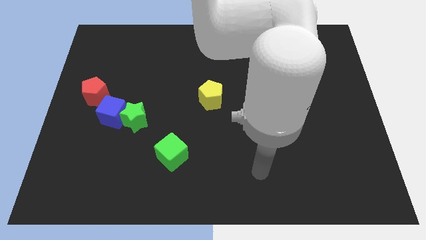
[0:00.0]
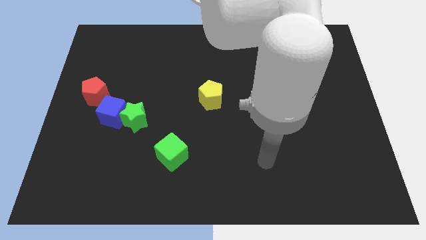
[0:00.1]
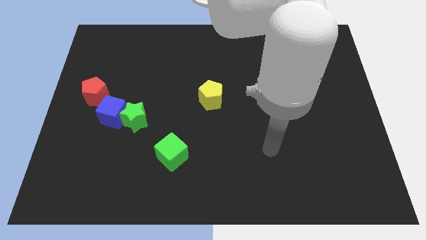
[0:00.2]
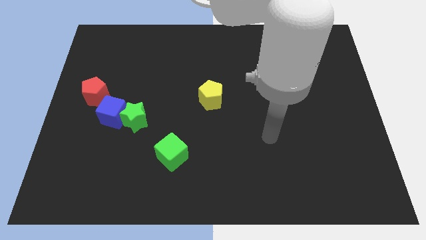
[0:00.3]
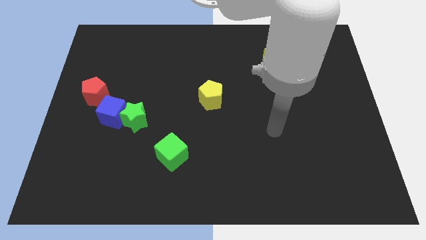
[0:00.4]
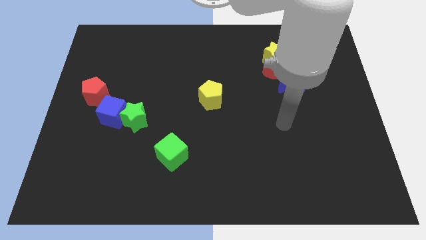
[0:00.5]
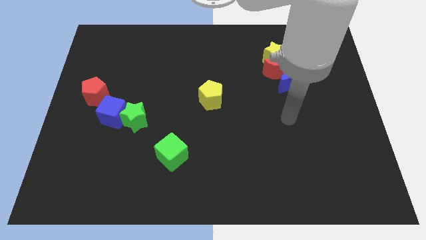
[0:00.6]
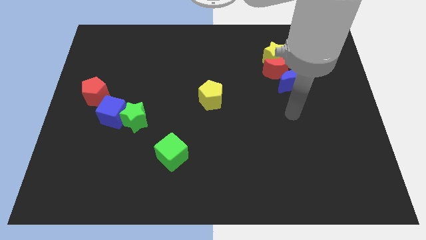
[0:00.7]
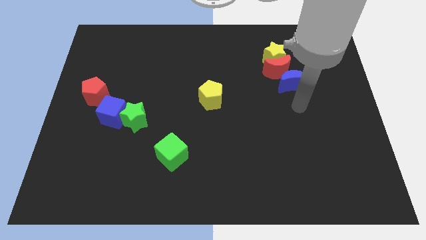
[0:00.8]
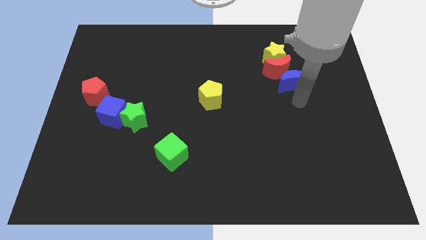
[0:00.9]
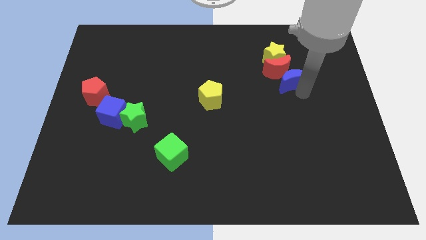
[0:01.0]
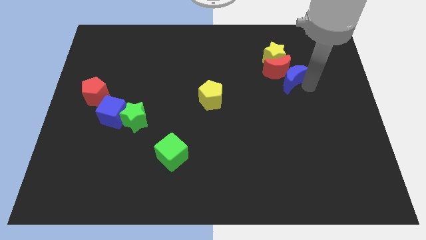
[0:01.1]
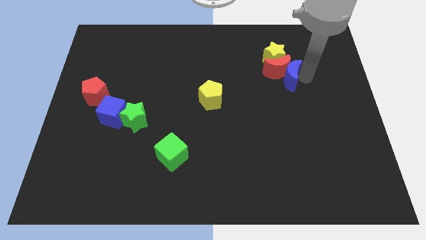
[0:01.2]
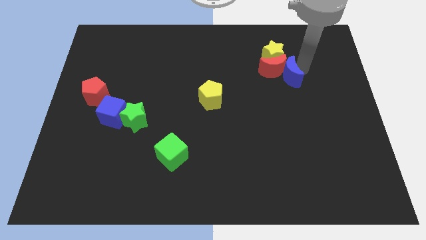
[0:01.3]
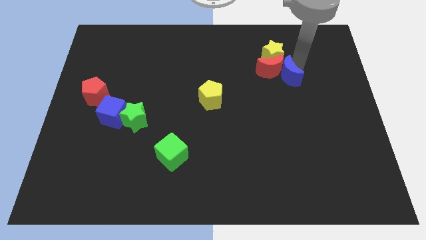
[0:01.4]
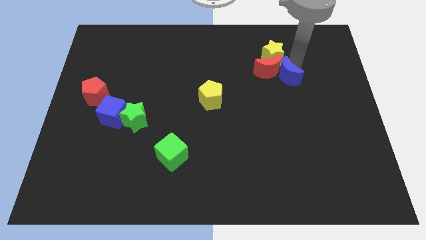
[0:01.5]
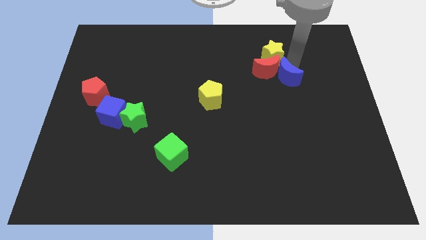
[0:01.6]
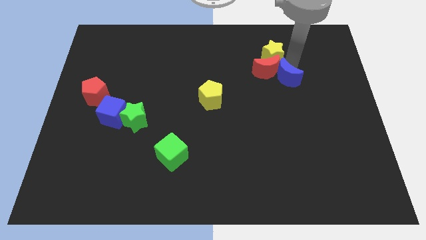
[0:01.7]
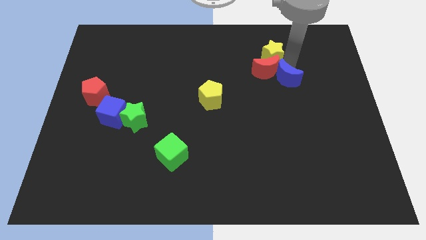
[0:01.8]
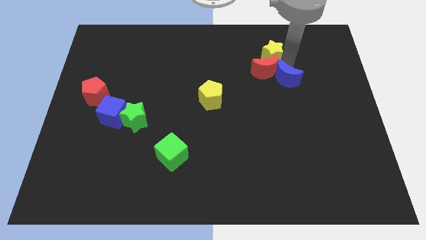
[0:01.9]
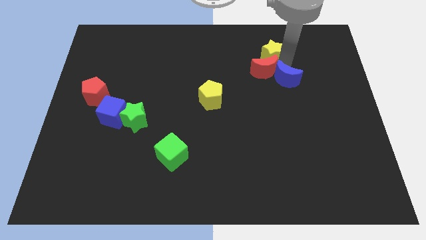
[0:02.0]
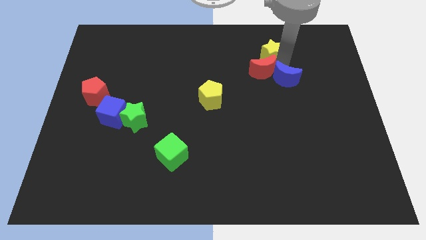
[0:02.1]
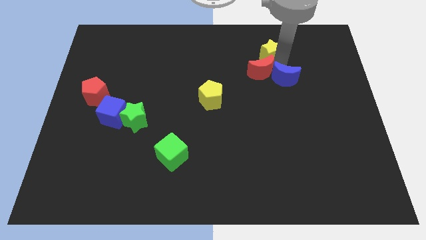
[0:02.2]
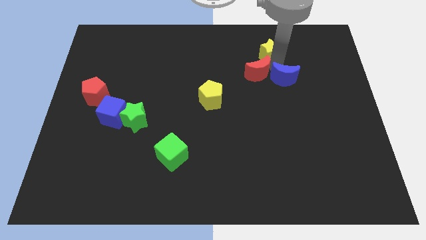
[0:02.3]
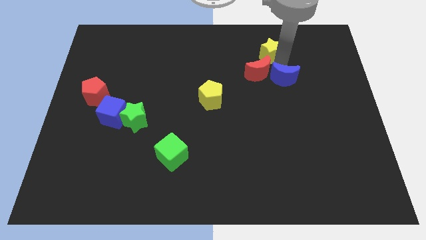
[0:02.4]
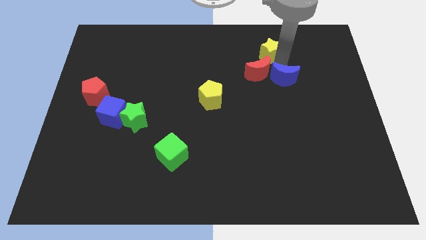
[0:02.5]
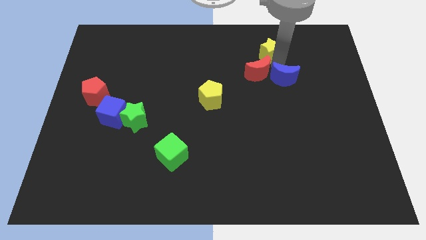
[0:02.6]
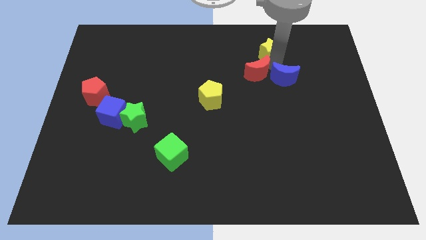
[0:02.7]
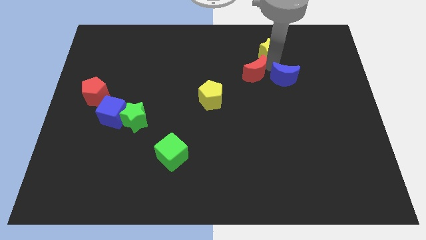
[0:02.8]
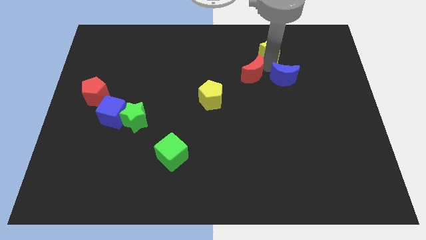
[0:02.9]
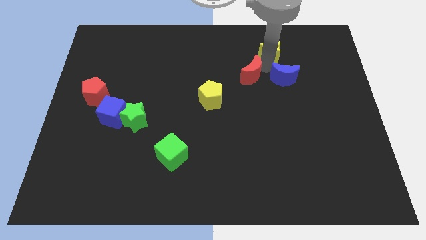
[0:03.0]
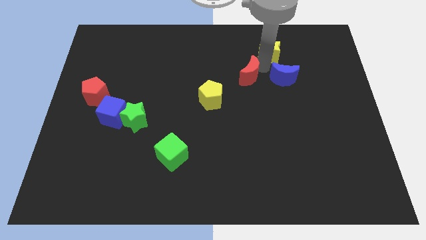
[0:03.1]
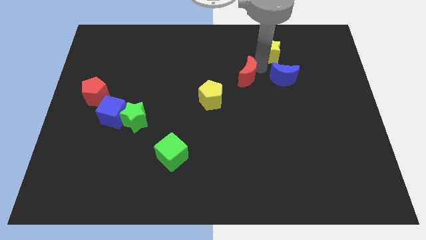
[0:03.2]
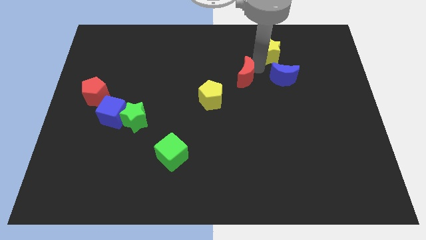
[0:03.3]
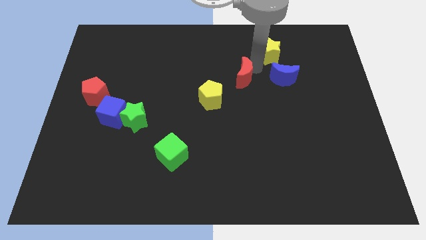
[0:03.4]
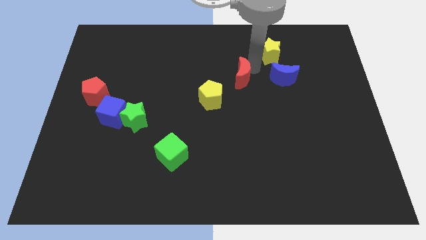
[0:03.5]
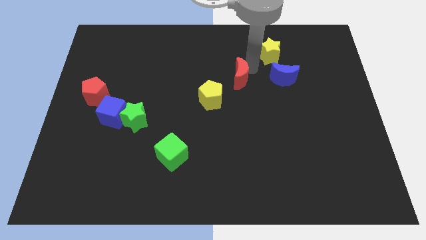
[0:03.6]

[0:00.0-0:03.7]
move the red moon away from the yellow star and blue moon

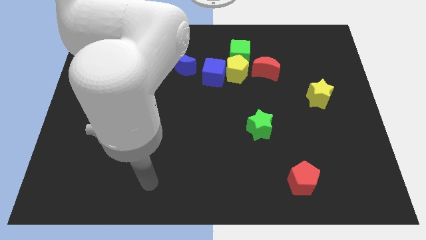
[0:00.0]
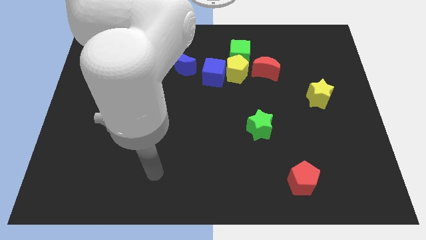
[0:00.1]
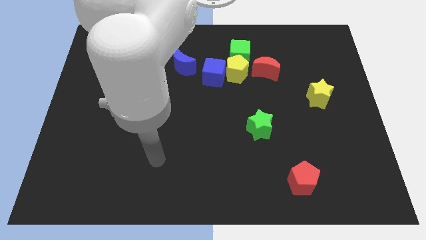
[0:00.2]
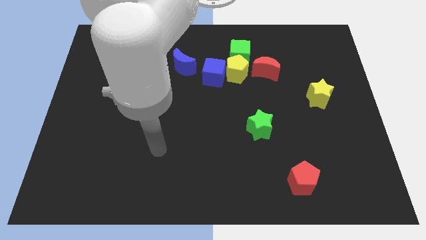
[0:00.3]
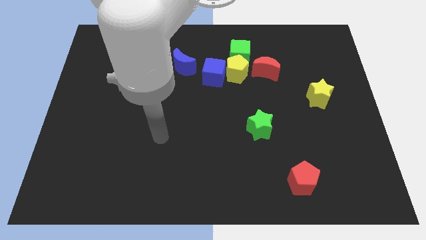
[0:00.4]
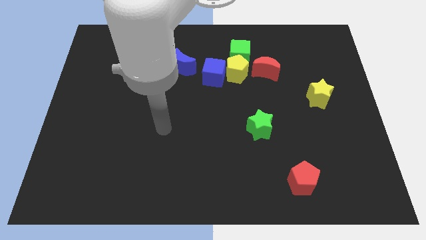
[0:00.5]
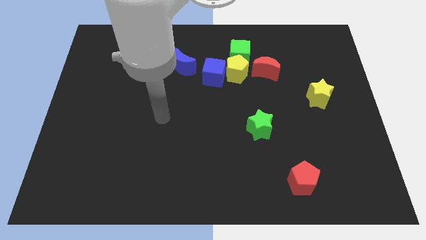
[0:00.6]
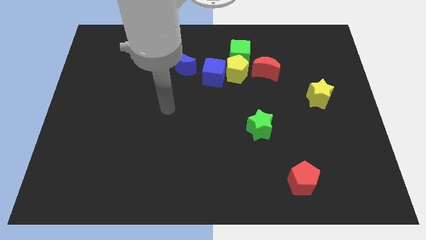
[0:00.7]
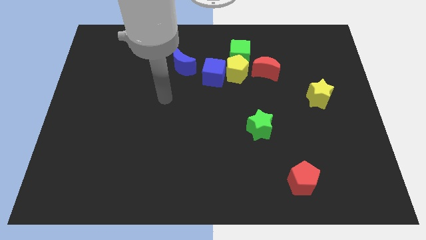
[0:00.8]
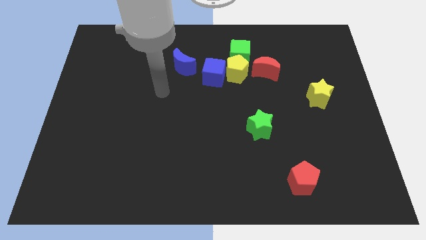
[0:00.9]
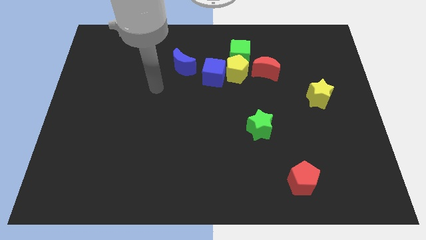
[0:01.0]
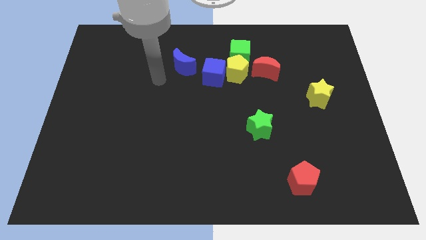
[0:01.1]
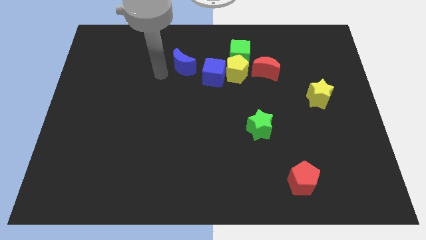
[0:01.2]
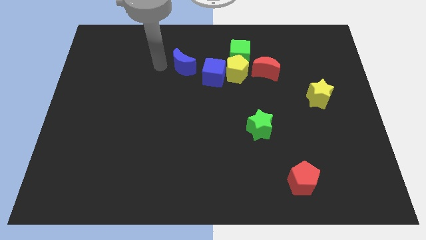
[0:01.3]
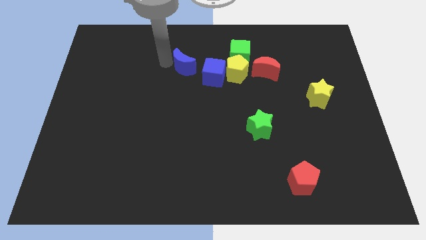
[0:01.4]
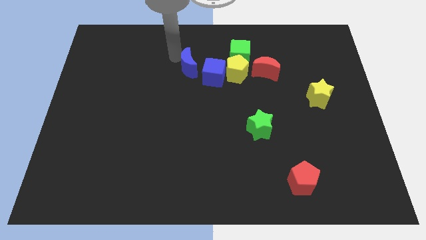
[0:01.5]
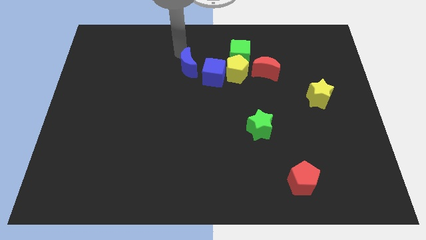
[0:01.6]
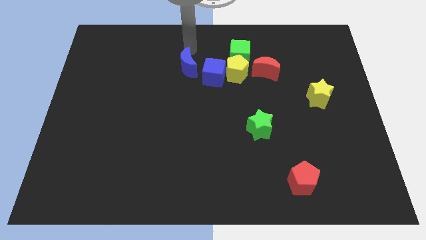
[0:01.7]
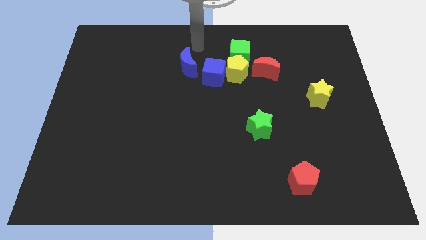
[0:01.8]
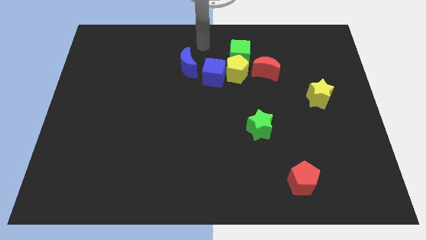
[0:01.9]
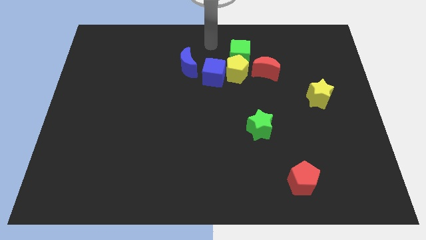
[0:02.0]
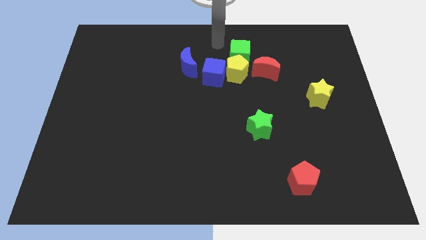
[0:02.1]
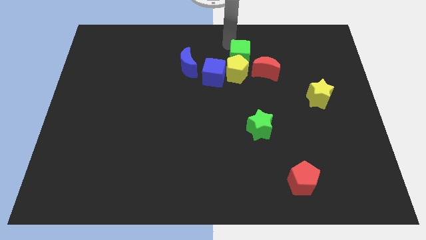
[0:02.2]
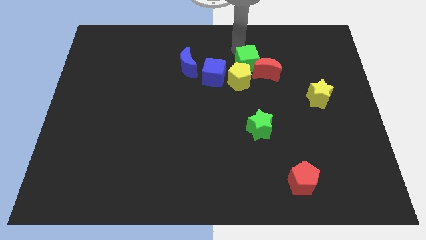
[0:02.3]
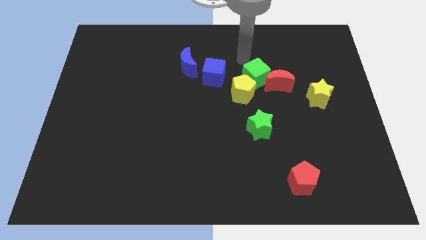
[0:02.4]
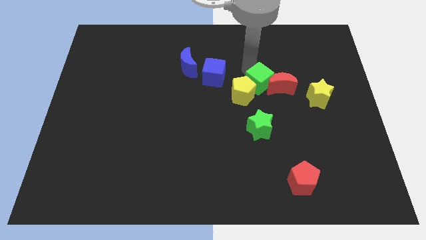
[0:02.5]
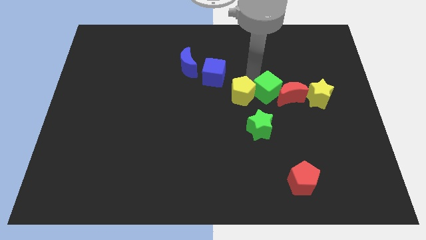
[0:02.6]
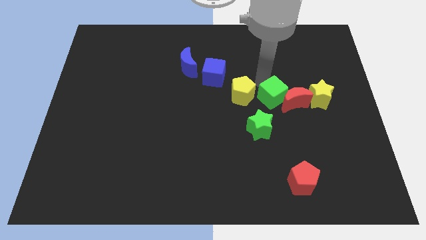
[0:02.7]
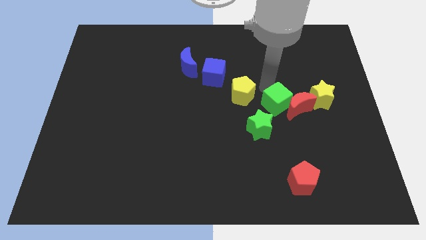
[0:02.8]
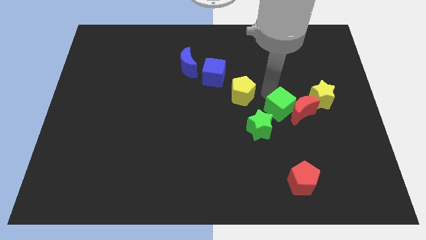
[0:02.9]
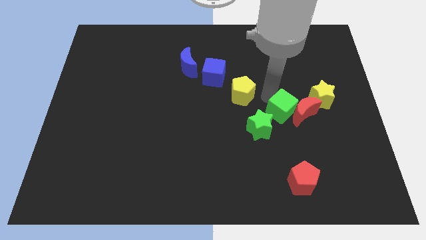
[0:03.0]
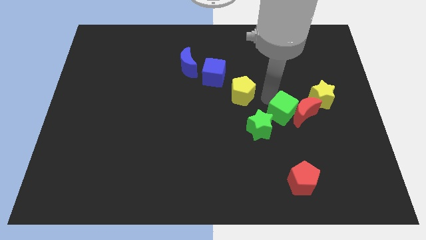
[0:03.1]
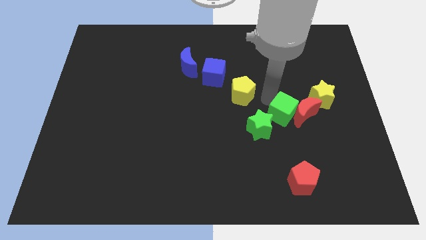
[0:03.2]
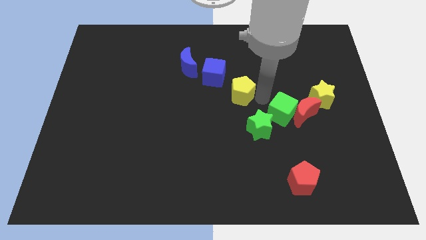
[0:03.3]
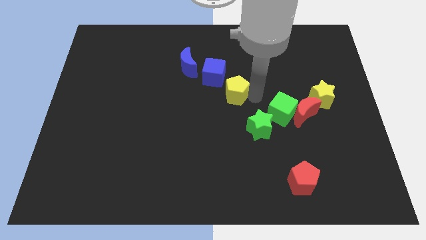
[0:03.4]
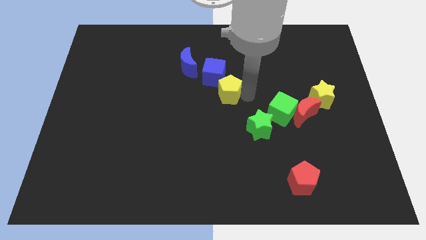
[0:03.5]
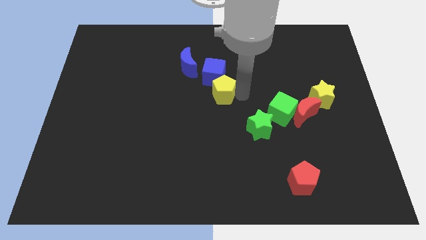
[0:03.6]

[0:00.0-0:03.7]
move the yellow pentagon away from the green cube, blue cube, and red moon

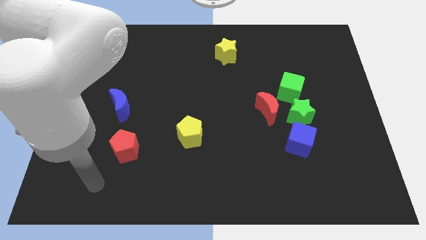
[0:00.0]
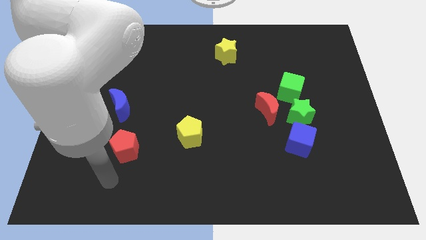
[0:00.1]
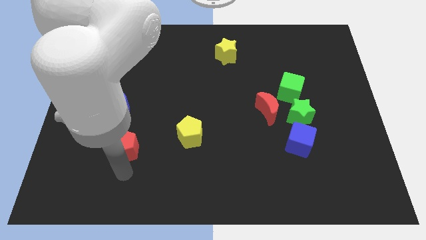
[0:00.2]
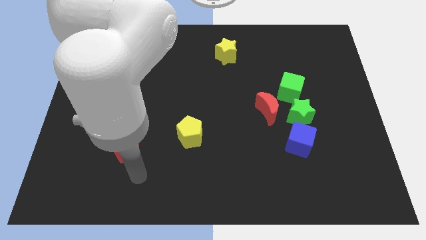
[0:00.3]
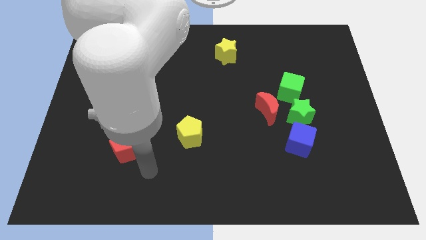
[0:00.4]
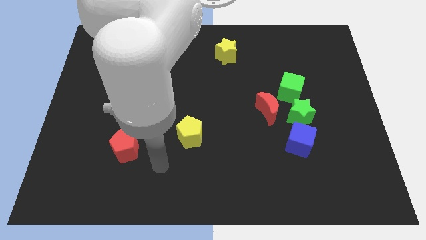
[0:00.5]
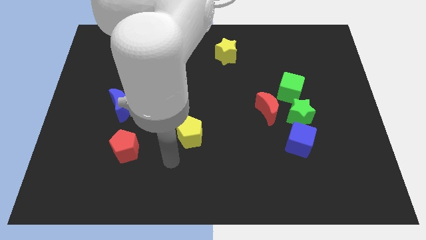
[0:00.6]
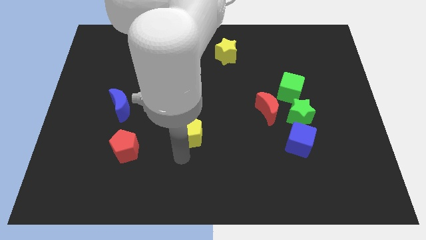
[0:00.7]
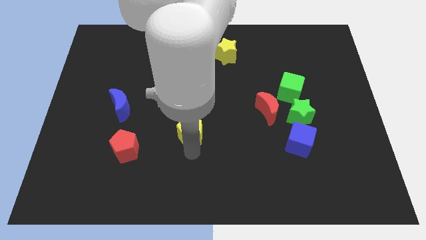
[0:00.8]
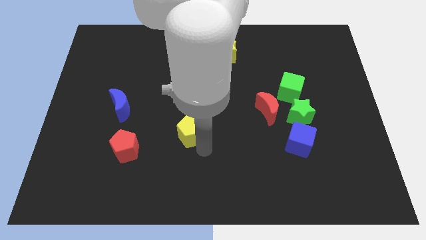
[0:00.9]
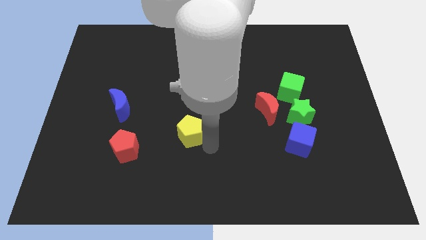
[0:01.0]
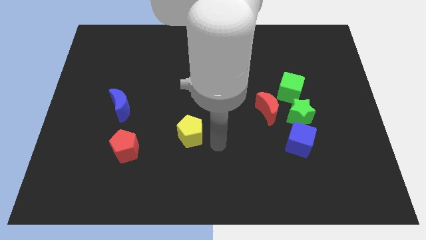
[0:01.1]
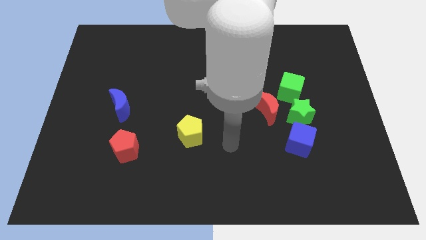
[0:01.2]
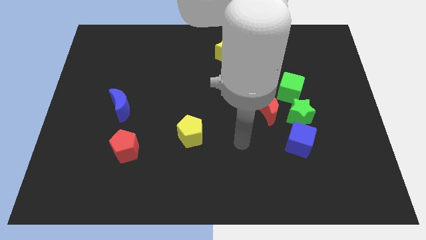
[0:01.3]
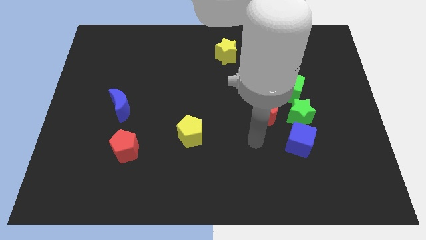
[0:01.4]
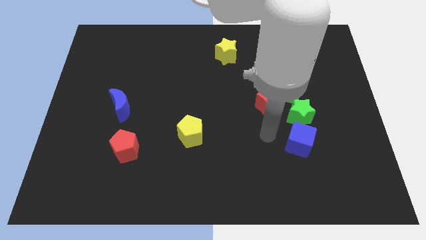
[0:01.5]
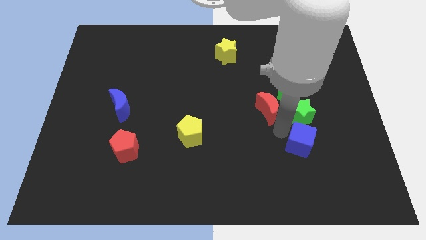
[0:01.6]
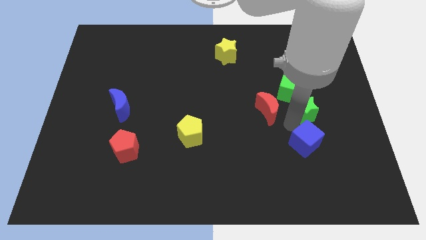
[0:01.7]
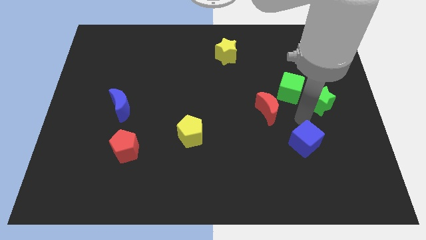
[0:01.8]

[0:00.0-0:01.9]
pull the blue cube apart from the green star
